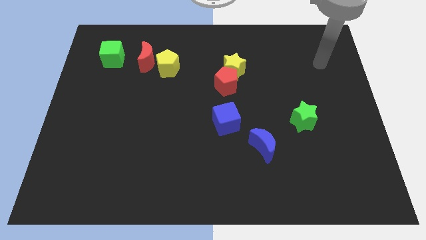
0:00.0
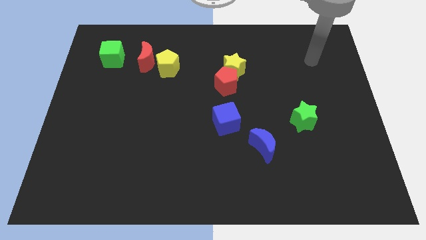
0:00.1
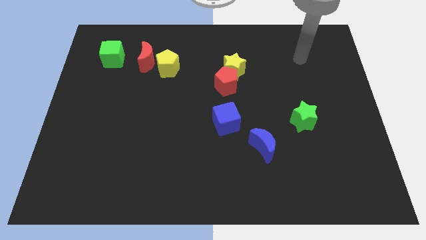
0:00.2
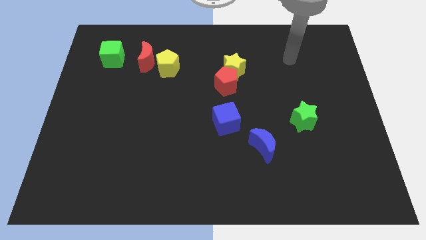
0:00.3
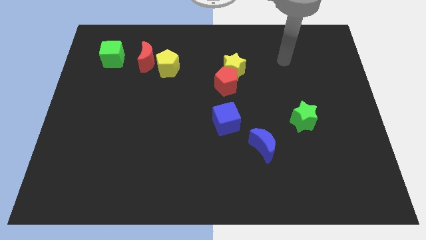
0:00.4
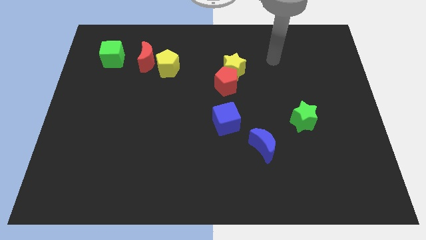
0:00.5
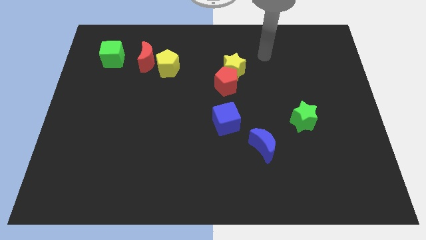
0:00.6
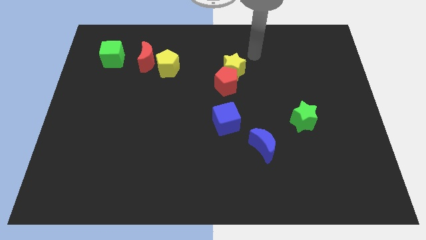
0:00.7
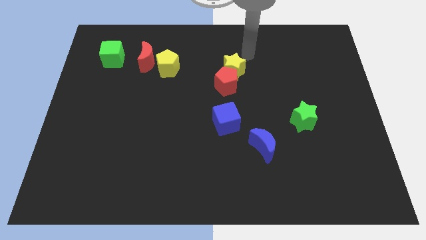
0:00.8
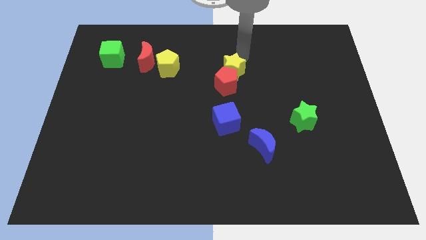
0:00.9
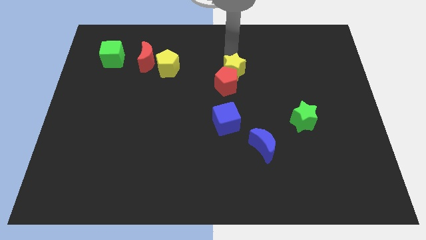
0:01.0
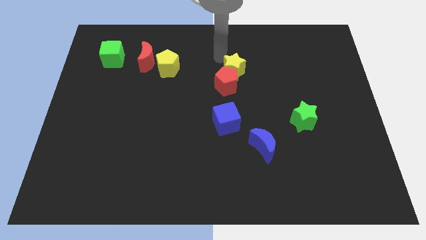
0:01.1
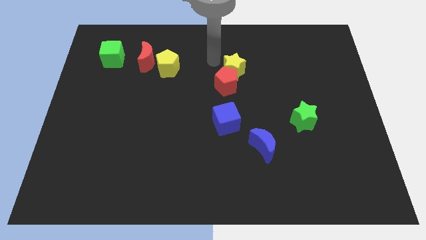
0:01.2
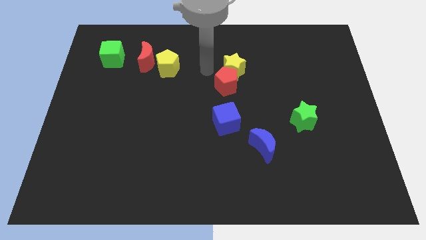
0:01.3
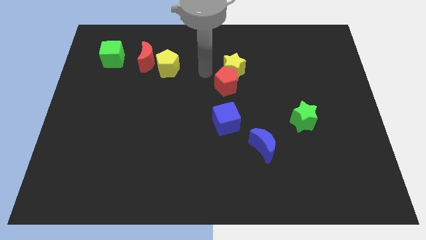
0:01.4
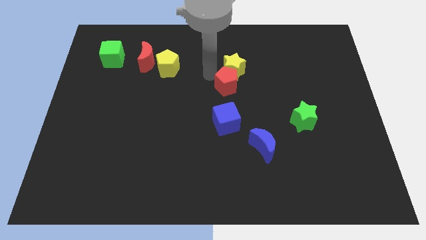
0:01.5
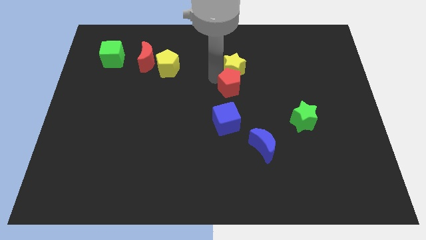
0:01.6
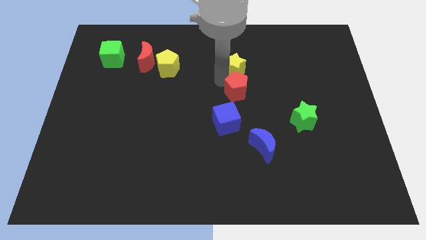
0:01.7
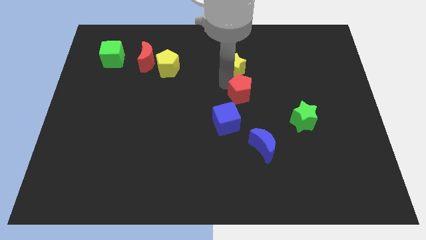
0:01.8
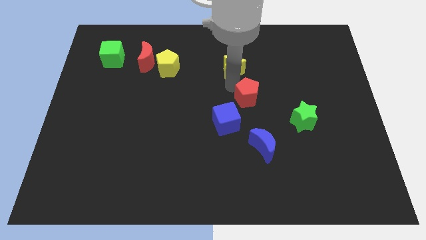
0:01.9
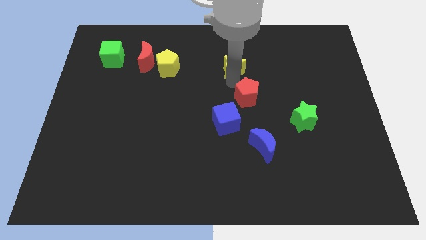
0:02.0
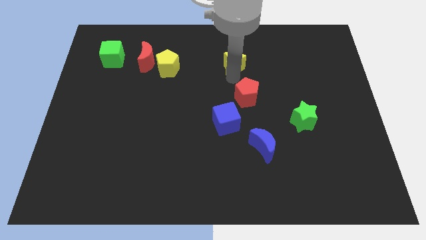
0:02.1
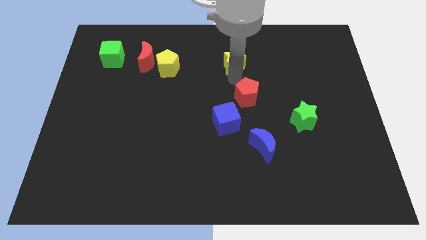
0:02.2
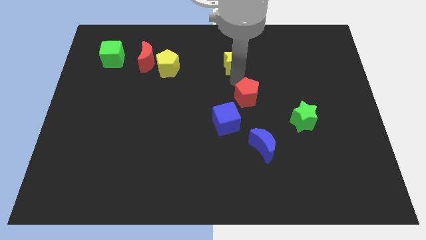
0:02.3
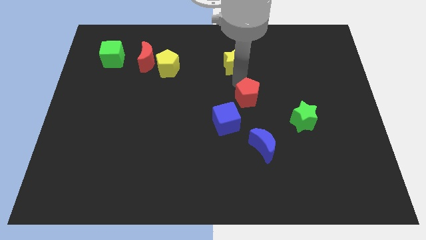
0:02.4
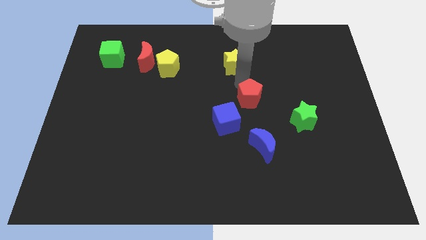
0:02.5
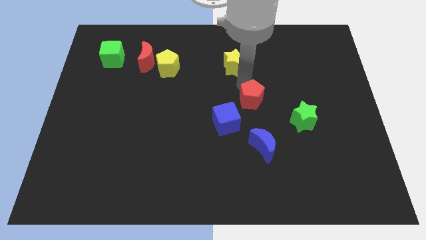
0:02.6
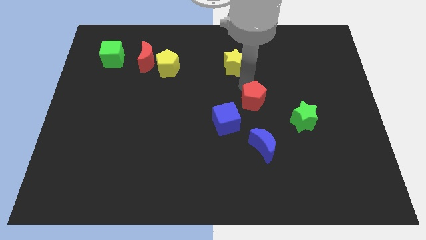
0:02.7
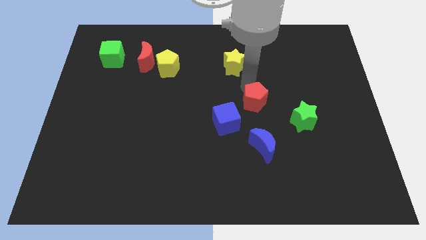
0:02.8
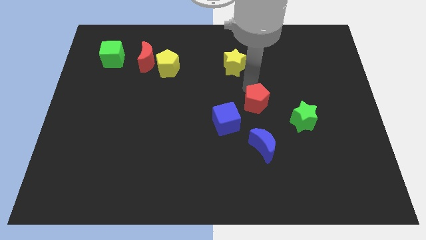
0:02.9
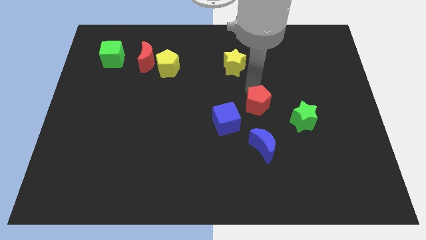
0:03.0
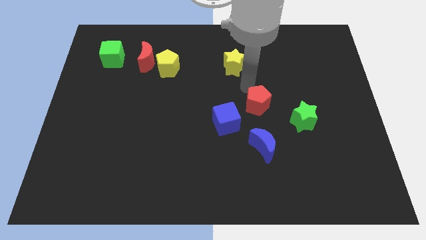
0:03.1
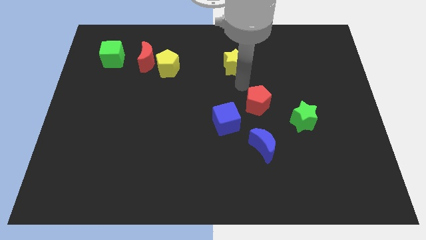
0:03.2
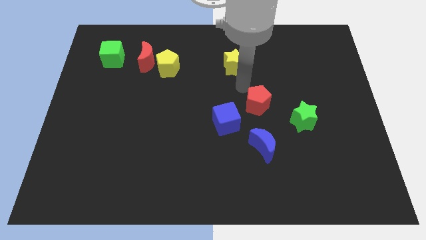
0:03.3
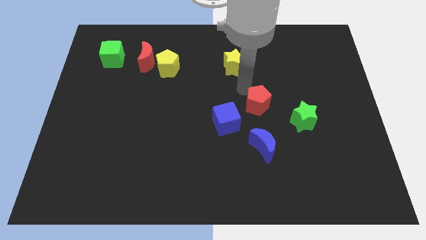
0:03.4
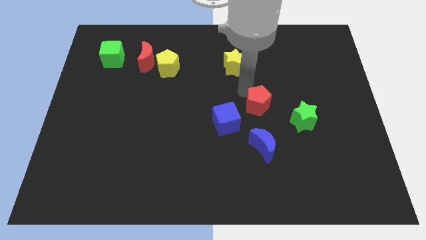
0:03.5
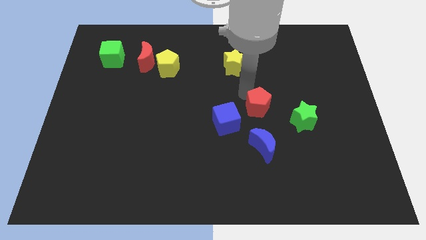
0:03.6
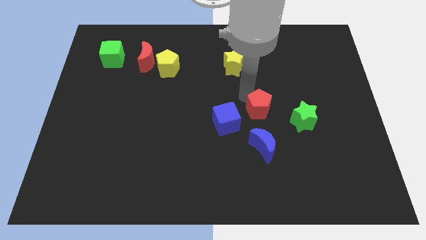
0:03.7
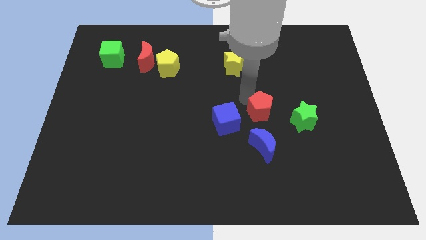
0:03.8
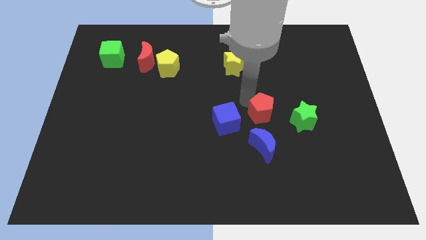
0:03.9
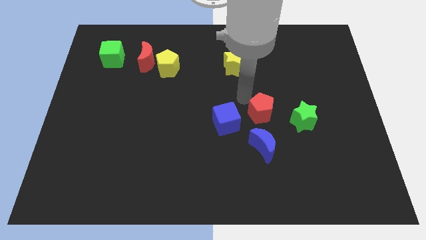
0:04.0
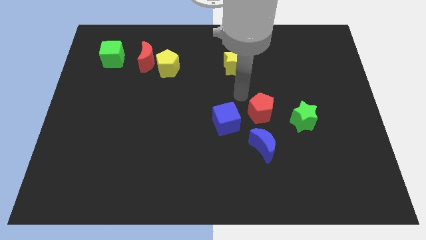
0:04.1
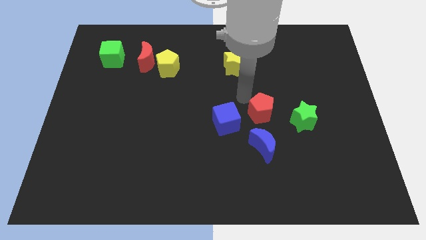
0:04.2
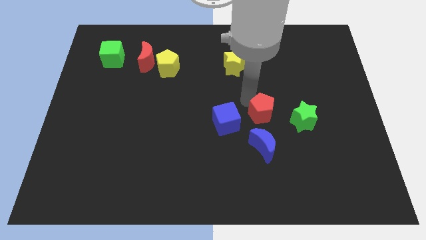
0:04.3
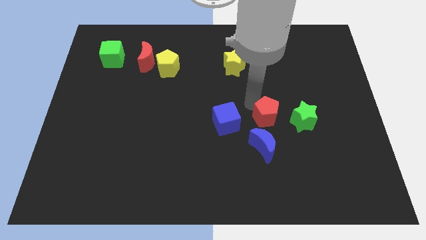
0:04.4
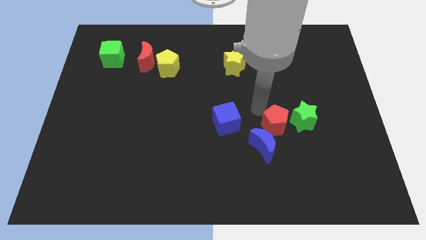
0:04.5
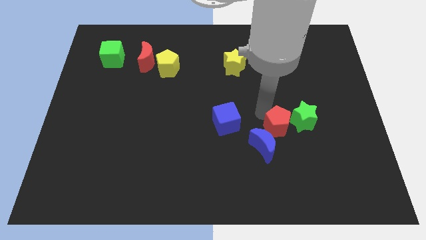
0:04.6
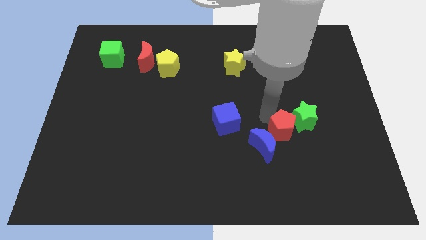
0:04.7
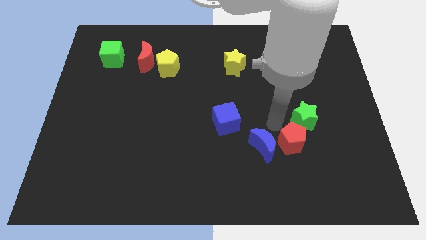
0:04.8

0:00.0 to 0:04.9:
push the red pentagon diagonally downwards and right

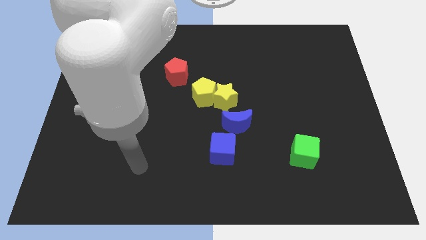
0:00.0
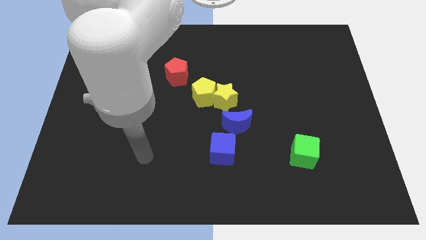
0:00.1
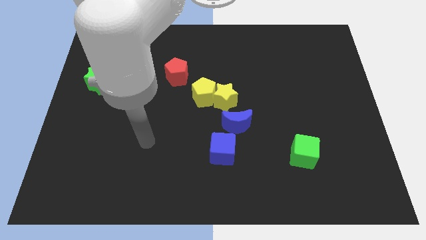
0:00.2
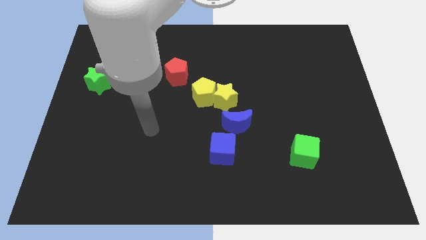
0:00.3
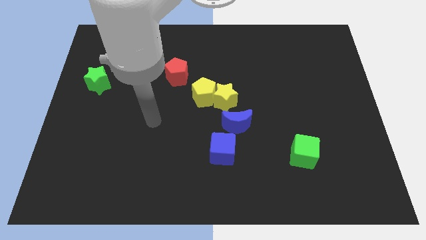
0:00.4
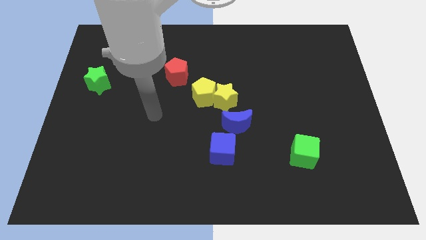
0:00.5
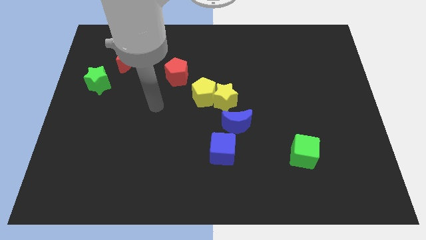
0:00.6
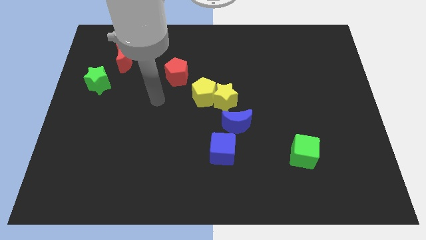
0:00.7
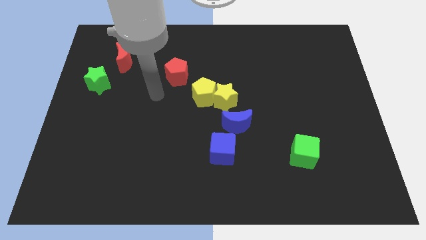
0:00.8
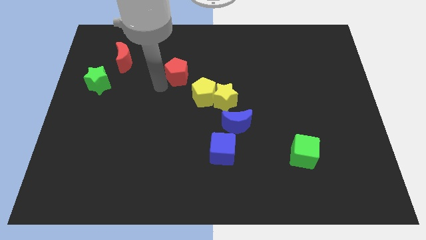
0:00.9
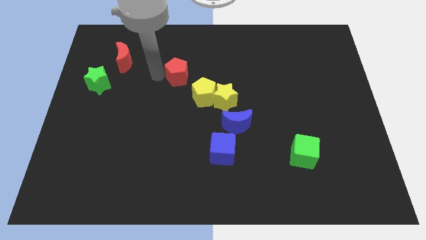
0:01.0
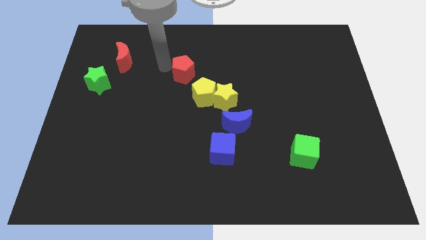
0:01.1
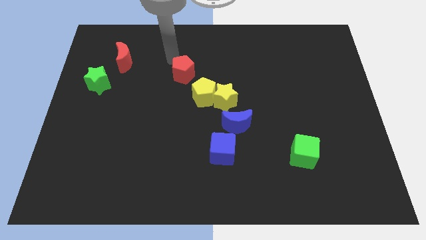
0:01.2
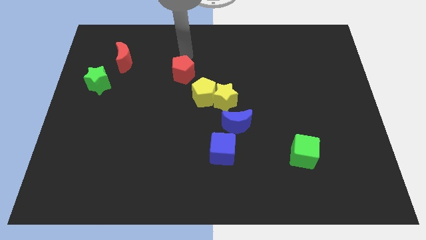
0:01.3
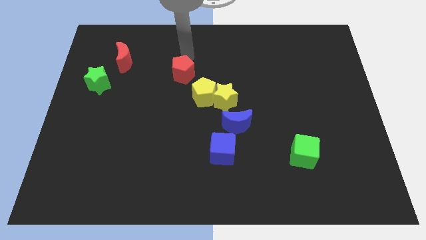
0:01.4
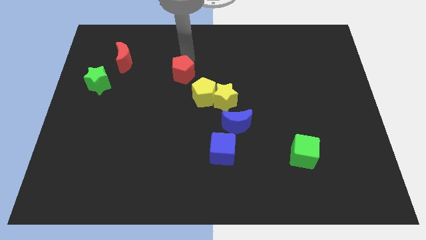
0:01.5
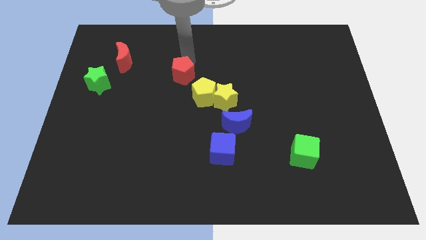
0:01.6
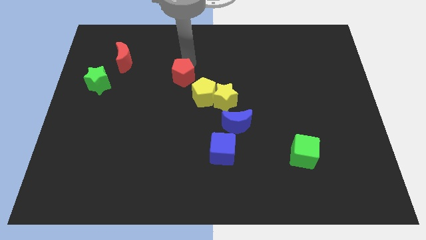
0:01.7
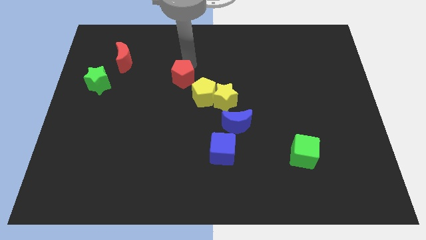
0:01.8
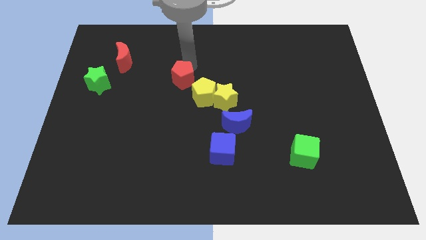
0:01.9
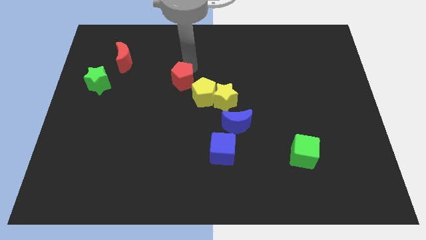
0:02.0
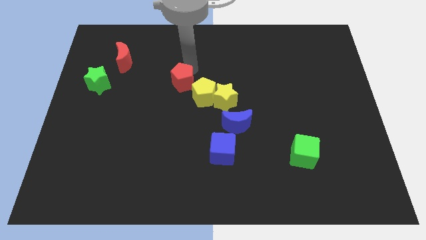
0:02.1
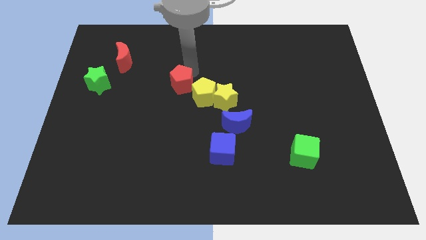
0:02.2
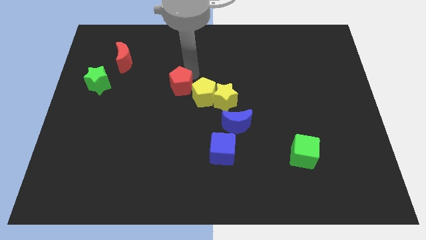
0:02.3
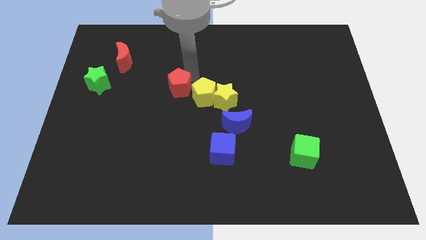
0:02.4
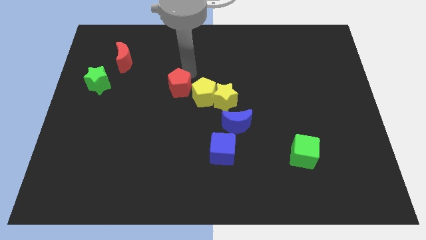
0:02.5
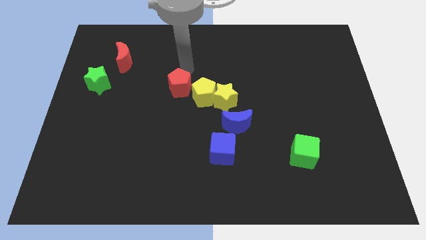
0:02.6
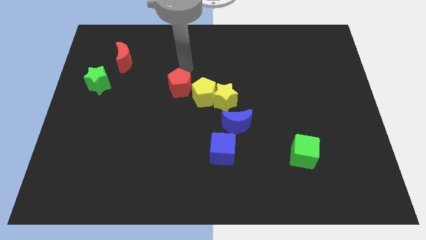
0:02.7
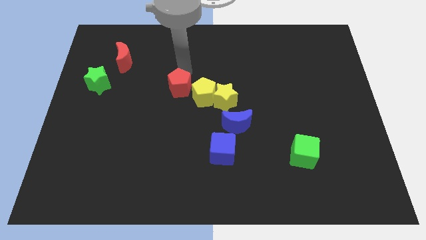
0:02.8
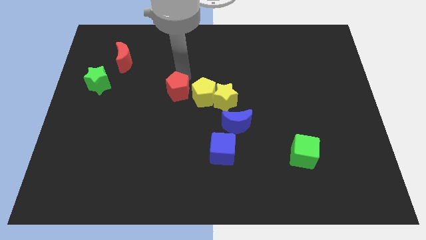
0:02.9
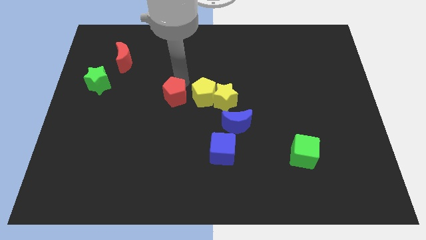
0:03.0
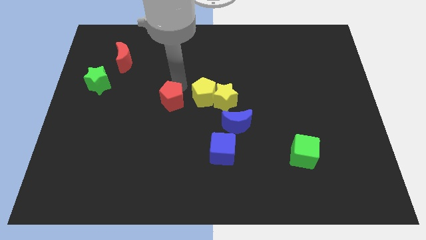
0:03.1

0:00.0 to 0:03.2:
move the red pentagon downwards a bit
